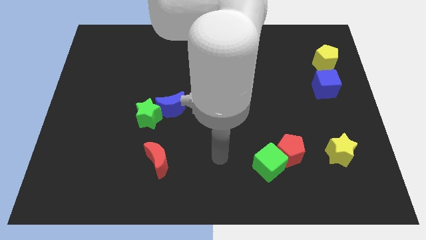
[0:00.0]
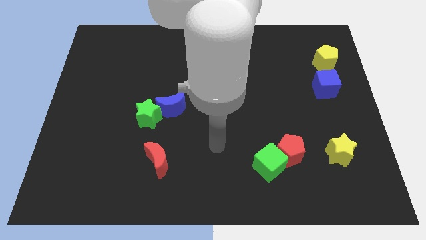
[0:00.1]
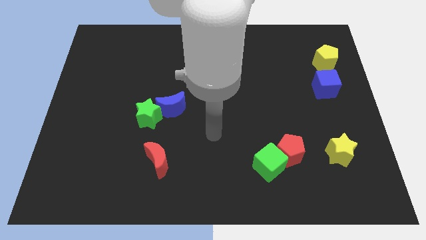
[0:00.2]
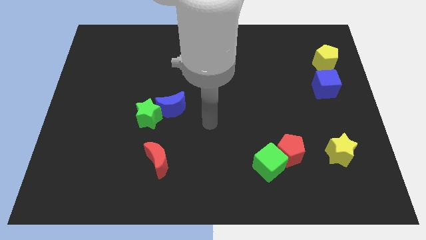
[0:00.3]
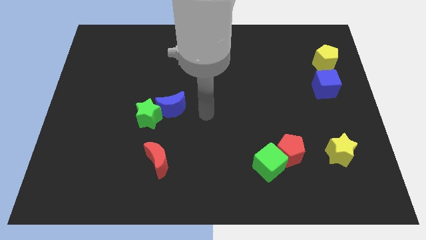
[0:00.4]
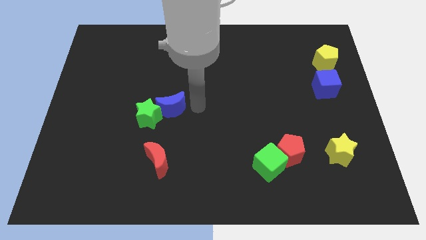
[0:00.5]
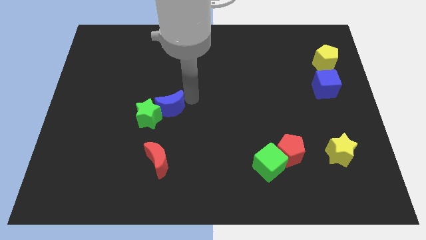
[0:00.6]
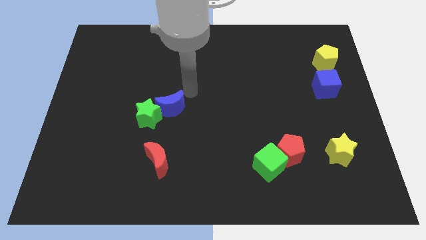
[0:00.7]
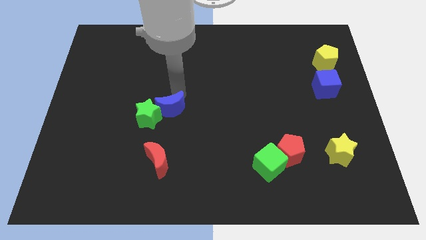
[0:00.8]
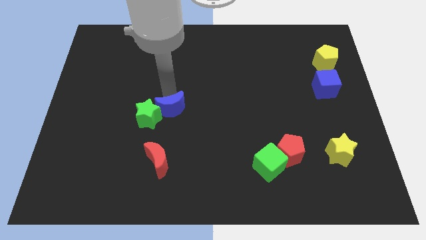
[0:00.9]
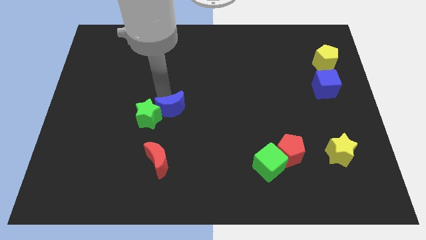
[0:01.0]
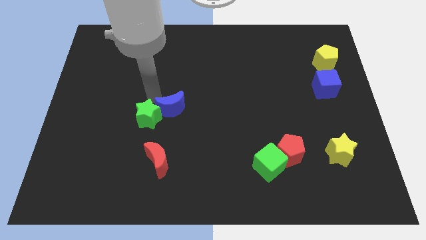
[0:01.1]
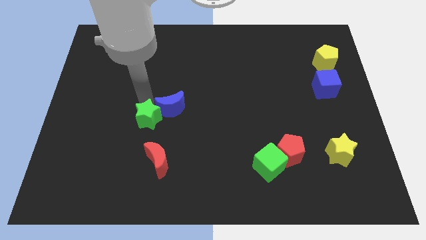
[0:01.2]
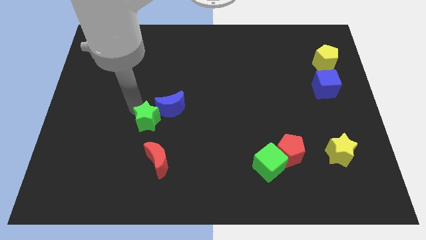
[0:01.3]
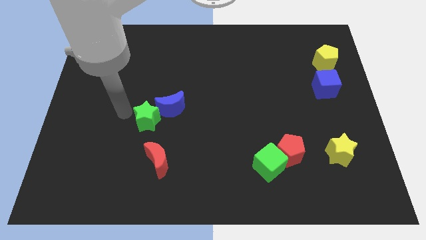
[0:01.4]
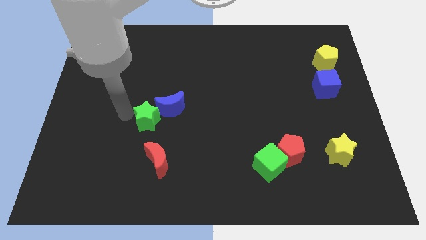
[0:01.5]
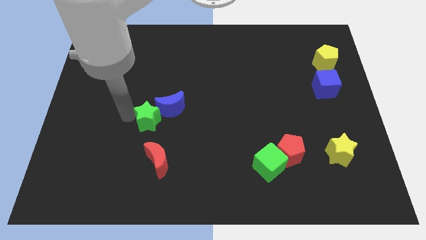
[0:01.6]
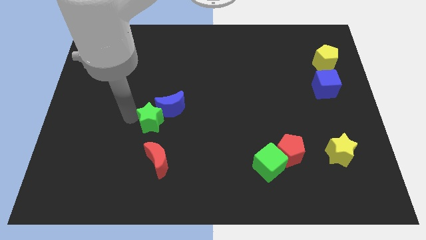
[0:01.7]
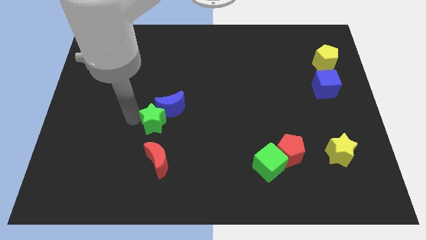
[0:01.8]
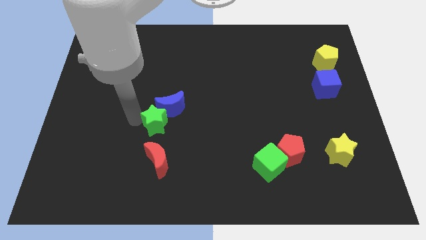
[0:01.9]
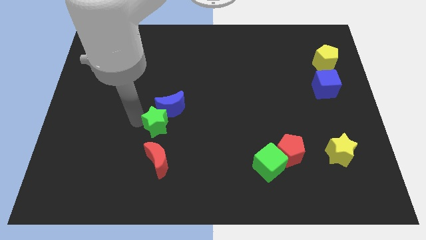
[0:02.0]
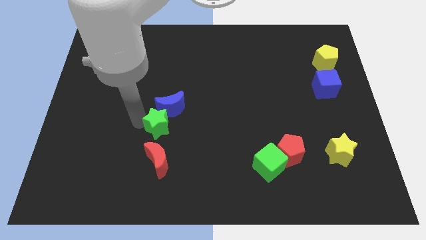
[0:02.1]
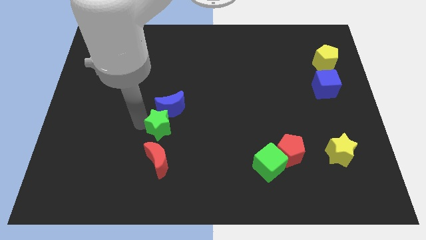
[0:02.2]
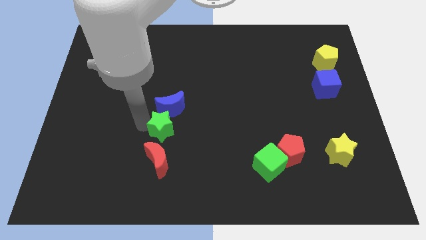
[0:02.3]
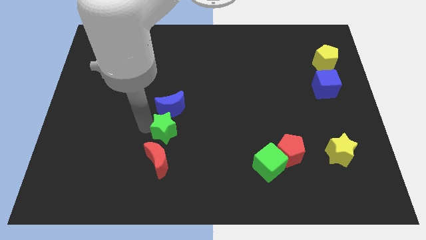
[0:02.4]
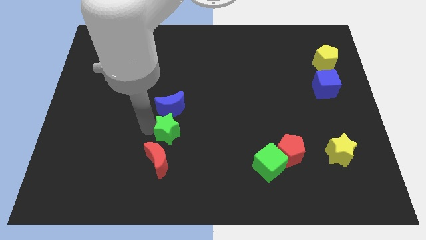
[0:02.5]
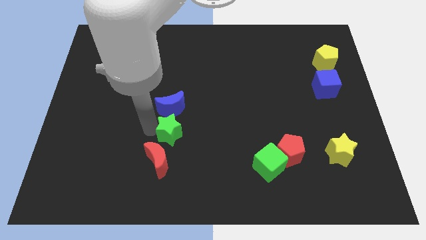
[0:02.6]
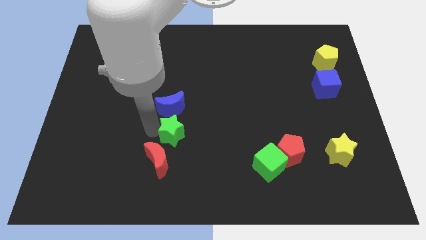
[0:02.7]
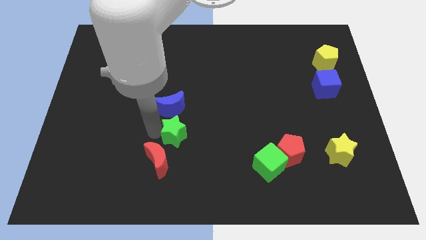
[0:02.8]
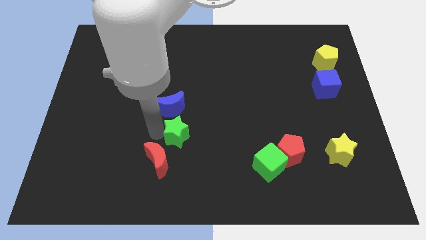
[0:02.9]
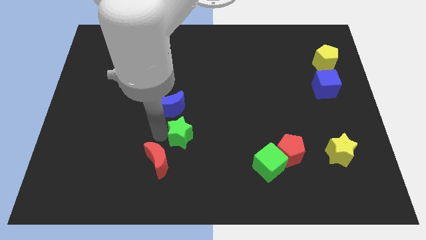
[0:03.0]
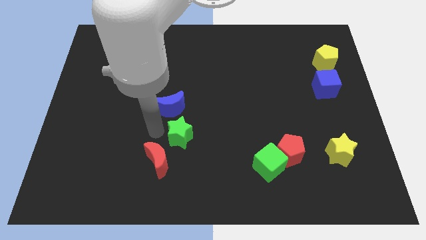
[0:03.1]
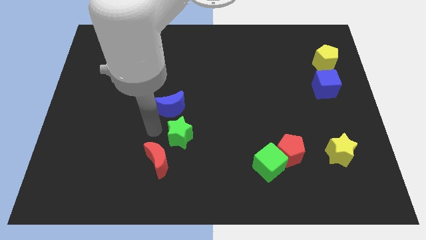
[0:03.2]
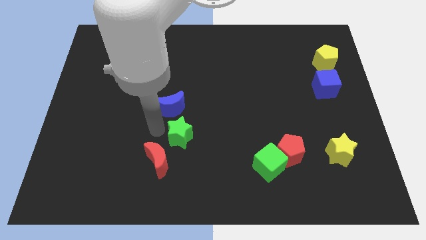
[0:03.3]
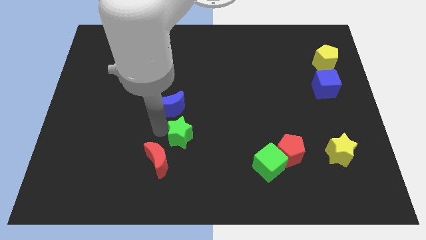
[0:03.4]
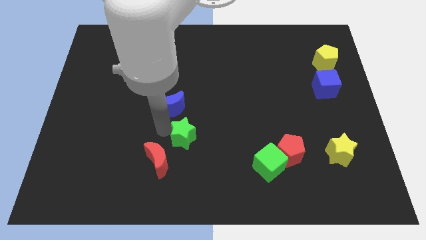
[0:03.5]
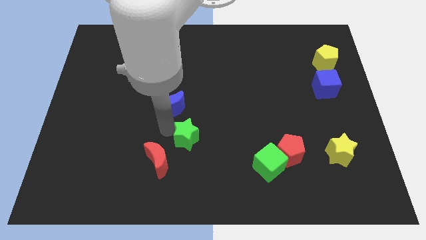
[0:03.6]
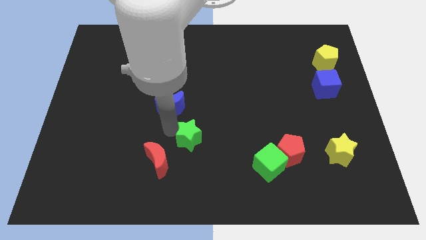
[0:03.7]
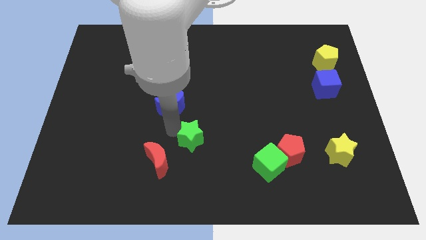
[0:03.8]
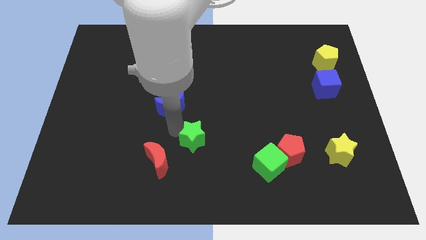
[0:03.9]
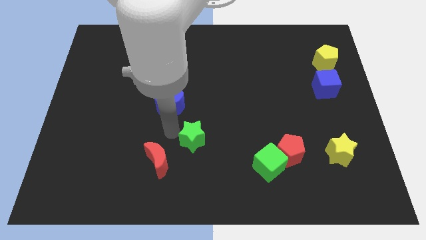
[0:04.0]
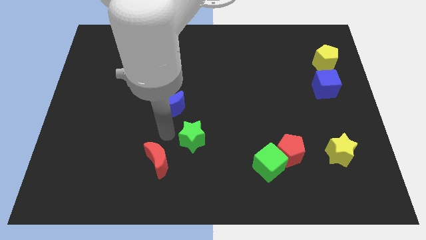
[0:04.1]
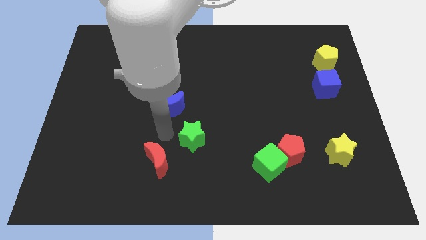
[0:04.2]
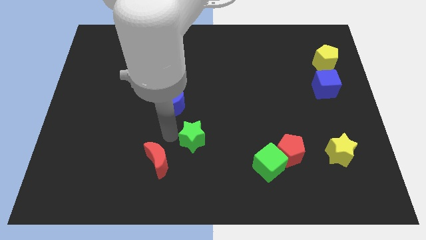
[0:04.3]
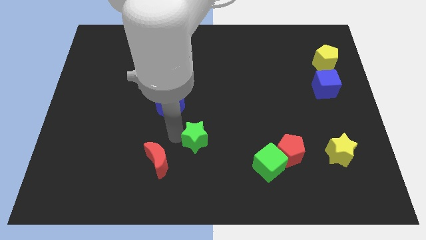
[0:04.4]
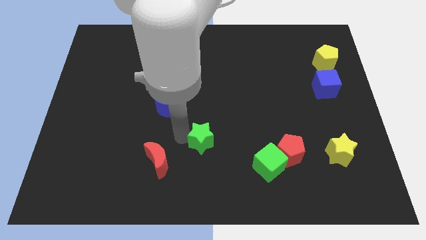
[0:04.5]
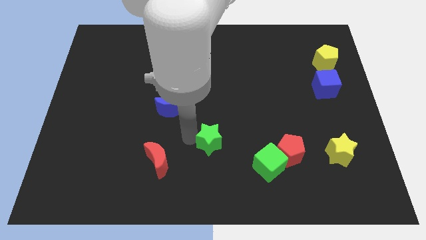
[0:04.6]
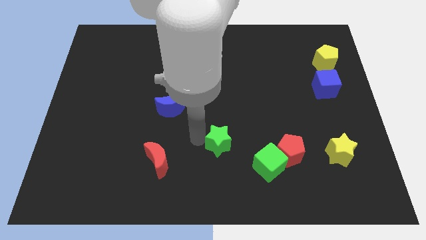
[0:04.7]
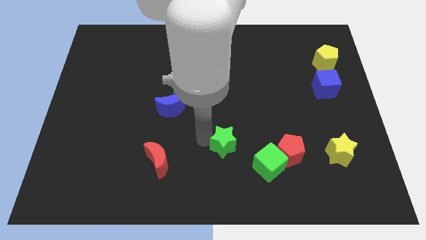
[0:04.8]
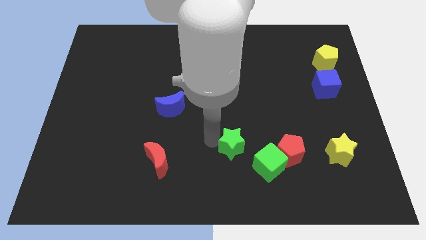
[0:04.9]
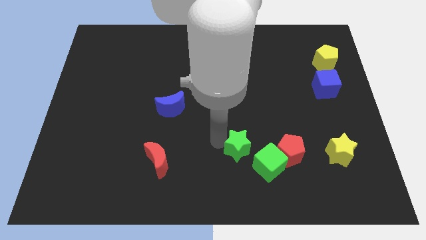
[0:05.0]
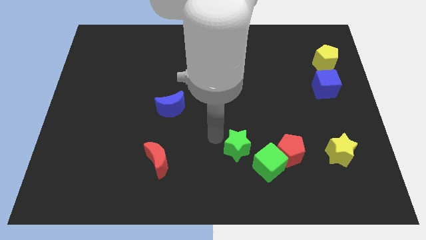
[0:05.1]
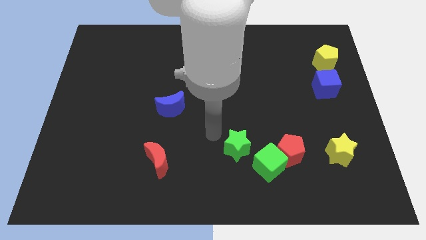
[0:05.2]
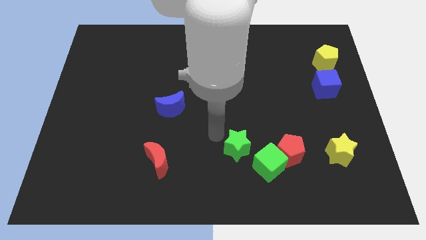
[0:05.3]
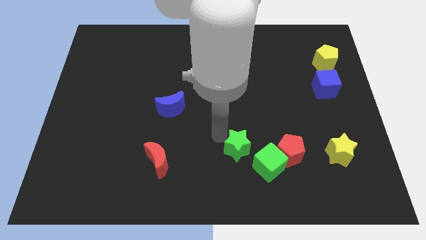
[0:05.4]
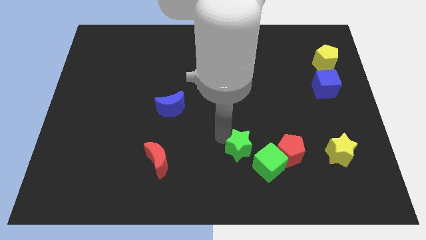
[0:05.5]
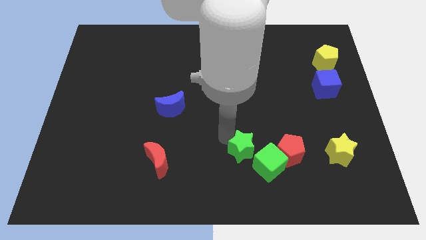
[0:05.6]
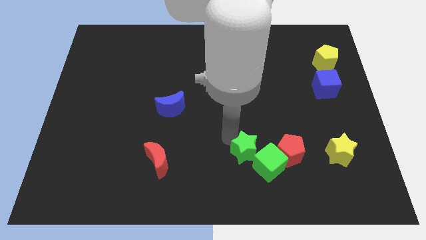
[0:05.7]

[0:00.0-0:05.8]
put the green star close to the green cube

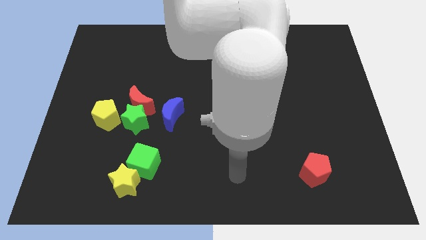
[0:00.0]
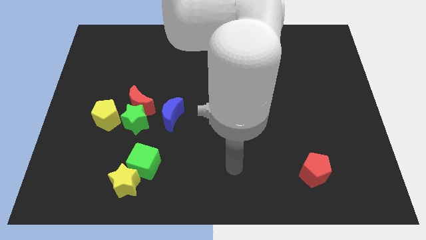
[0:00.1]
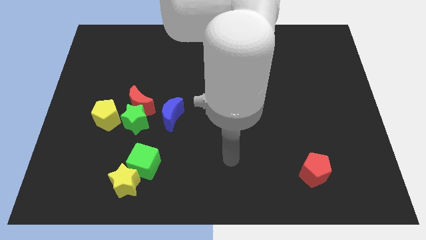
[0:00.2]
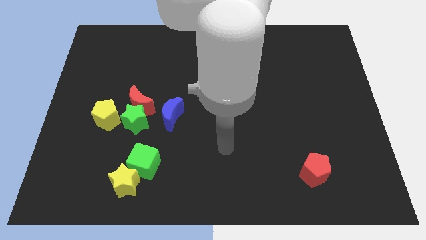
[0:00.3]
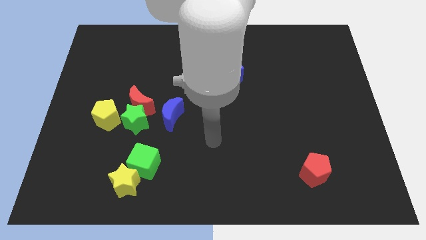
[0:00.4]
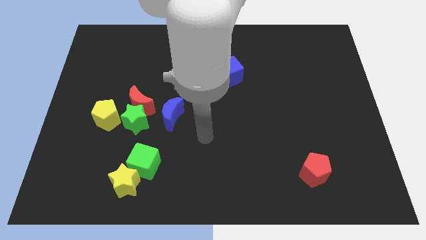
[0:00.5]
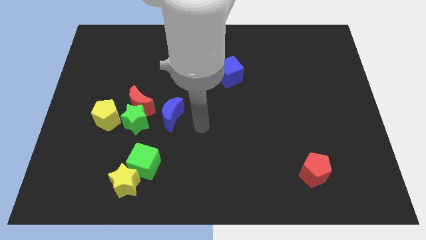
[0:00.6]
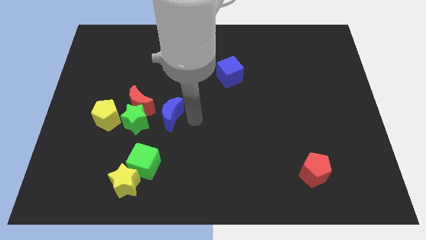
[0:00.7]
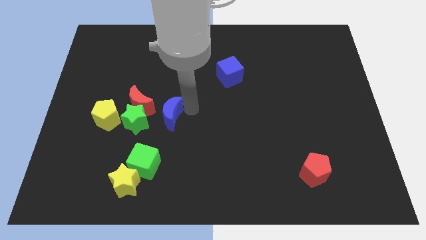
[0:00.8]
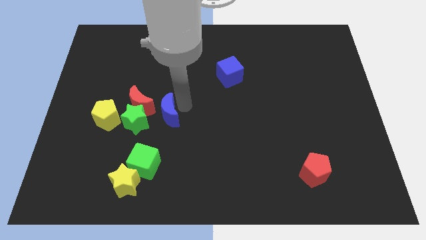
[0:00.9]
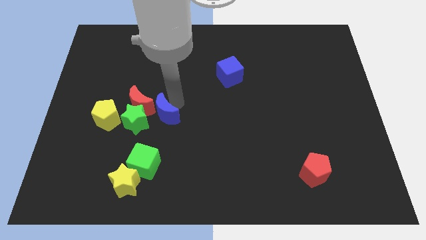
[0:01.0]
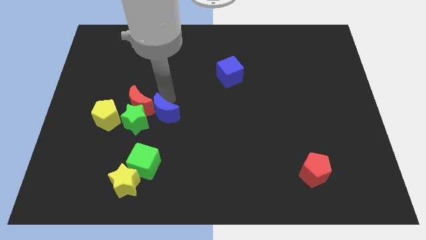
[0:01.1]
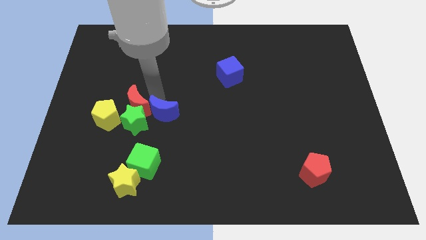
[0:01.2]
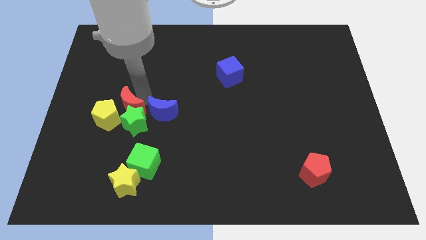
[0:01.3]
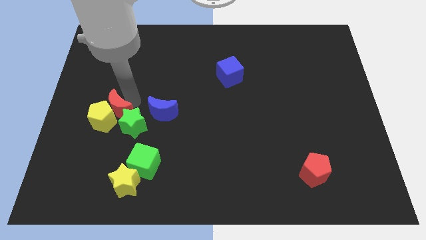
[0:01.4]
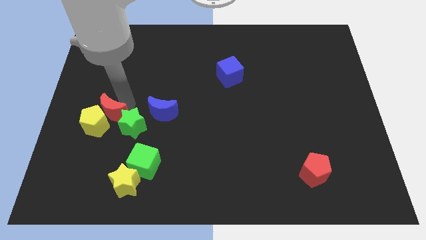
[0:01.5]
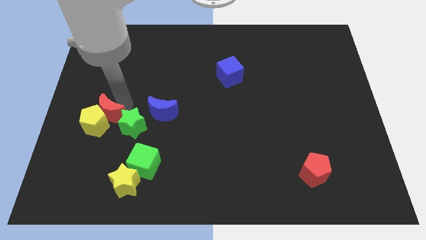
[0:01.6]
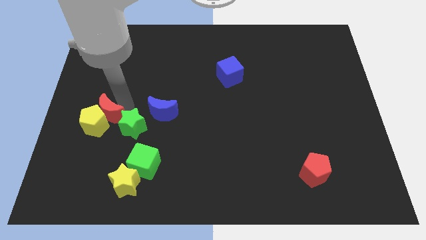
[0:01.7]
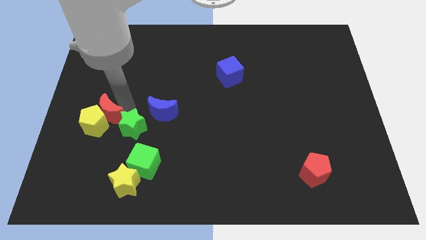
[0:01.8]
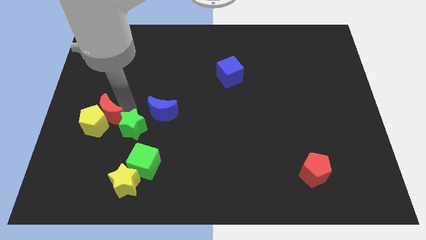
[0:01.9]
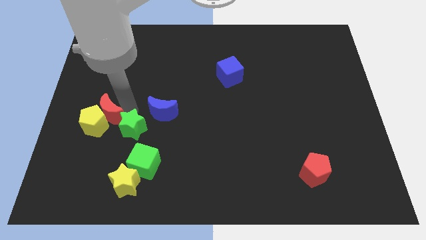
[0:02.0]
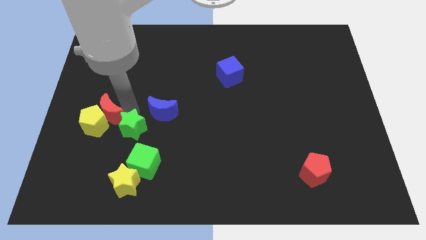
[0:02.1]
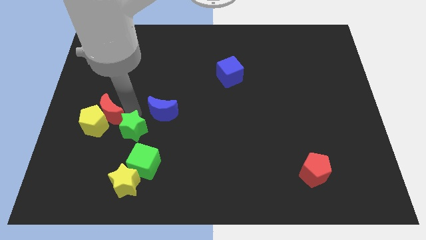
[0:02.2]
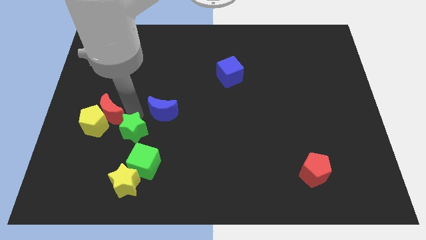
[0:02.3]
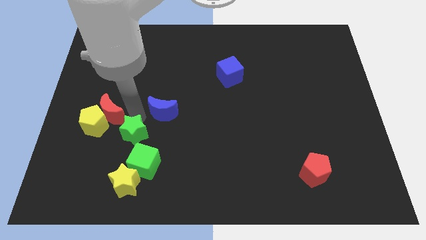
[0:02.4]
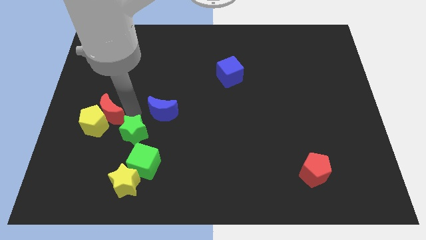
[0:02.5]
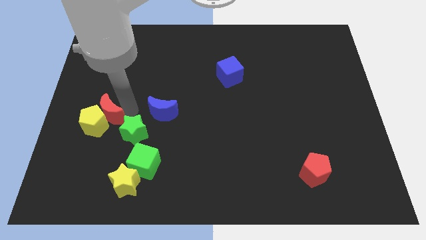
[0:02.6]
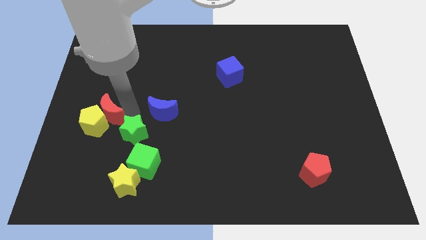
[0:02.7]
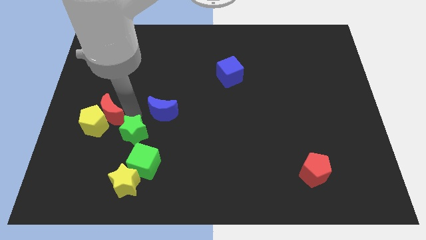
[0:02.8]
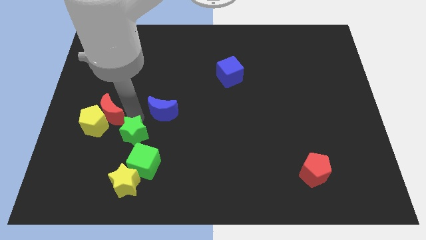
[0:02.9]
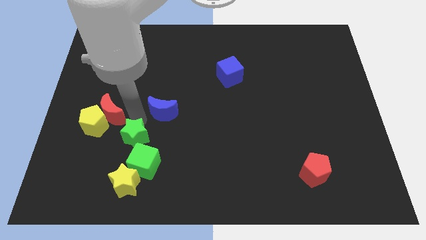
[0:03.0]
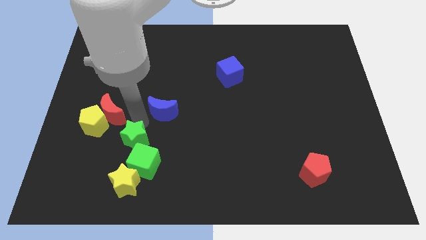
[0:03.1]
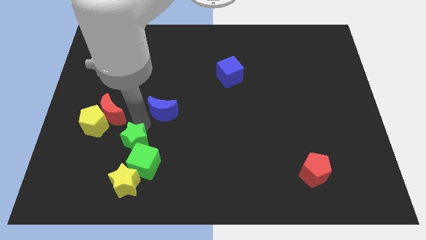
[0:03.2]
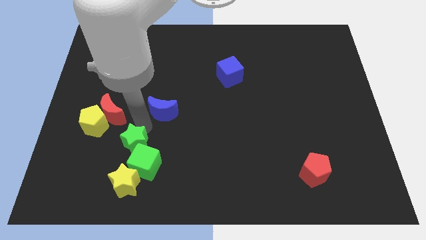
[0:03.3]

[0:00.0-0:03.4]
slide the green star close to the green cube
